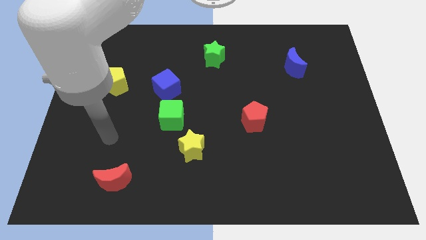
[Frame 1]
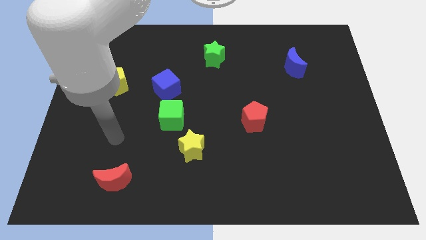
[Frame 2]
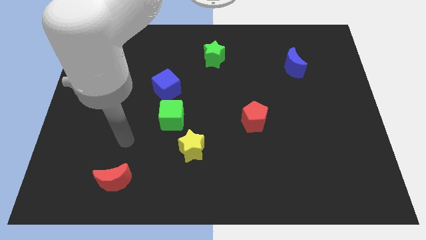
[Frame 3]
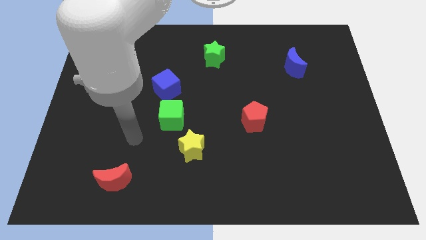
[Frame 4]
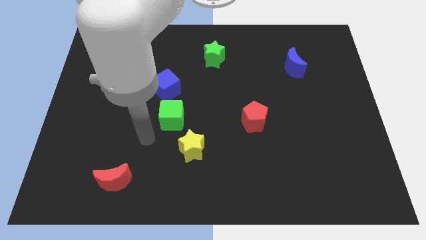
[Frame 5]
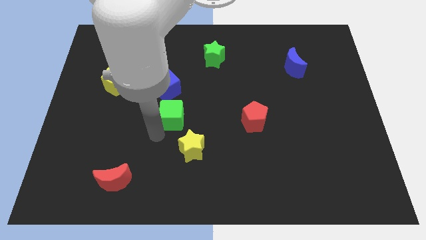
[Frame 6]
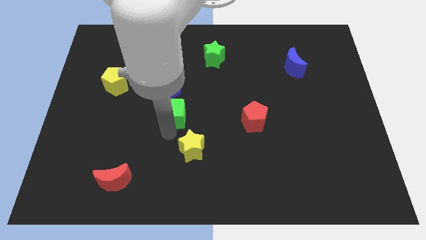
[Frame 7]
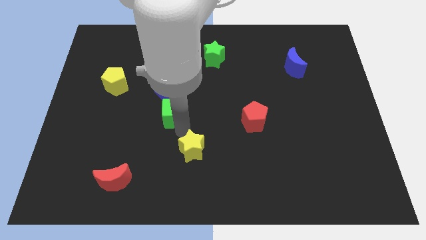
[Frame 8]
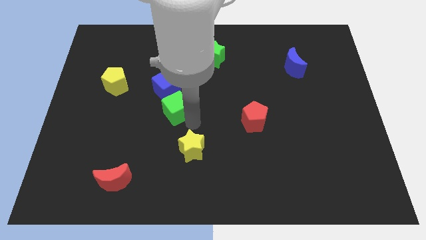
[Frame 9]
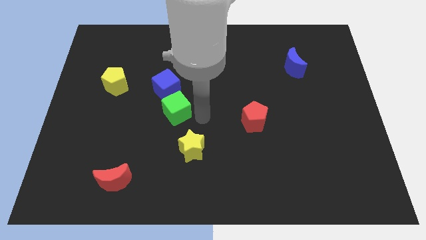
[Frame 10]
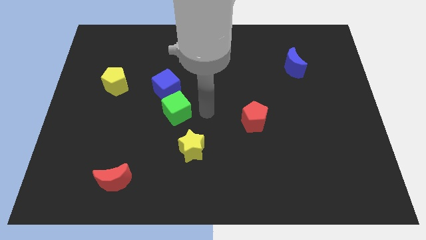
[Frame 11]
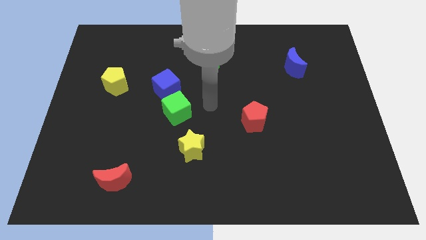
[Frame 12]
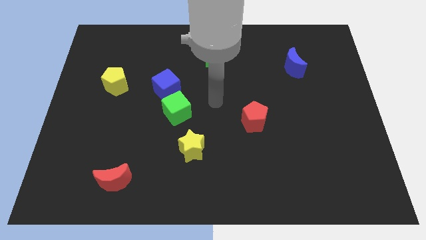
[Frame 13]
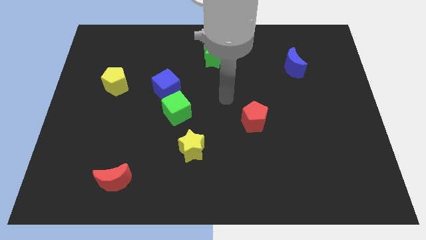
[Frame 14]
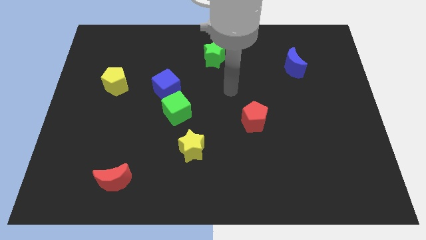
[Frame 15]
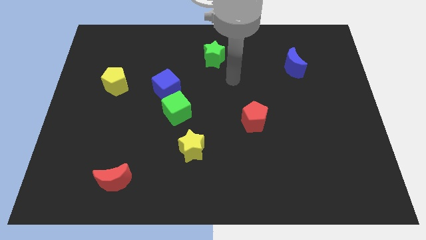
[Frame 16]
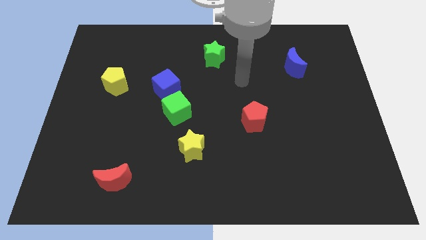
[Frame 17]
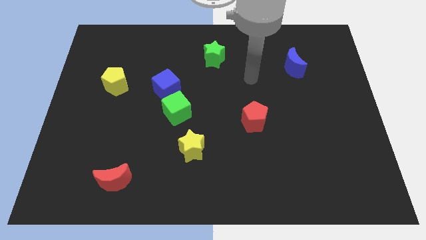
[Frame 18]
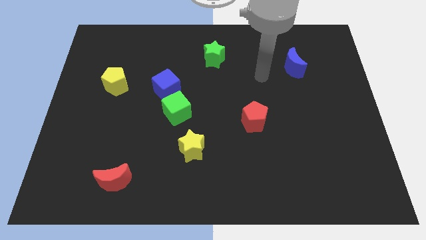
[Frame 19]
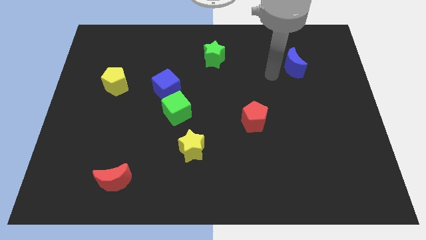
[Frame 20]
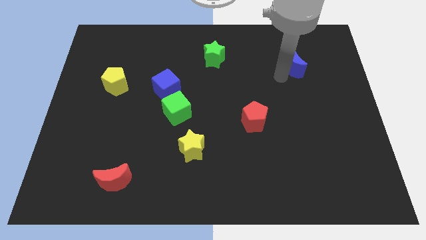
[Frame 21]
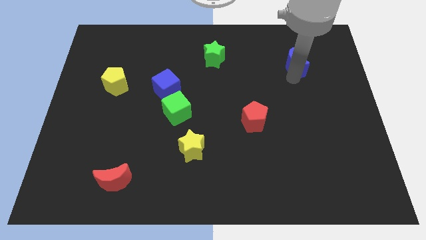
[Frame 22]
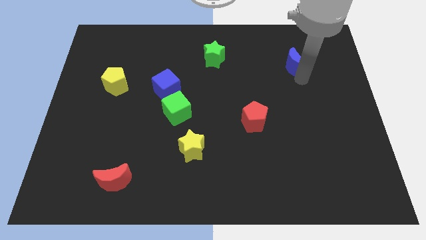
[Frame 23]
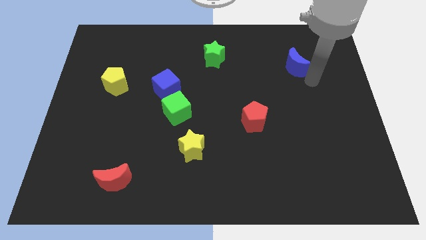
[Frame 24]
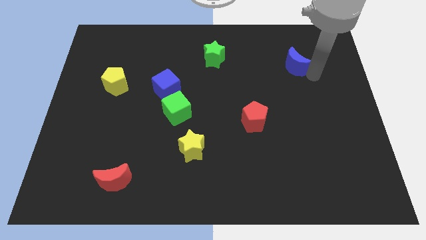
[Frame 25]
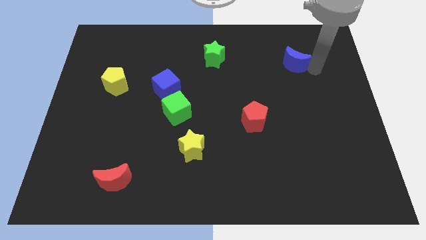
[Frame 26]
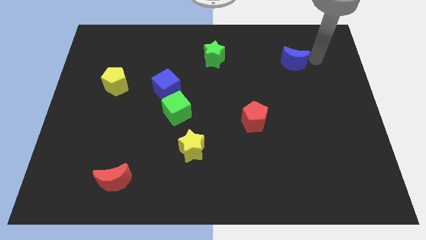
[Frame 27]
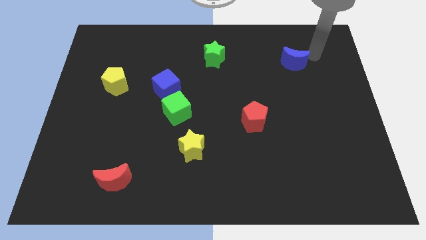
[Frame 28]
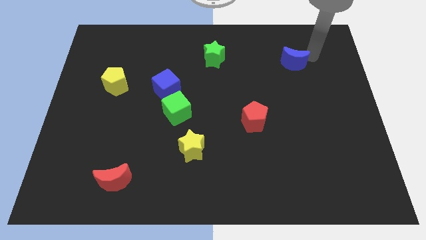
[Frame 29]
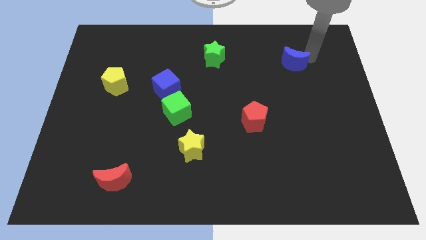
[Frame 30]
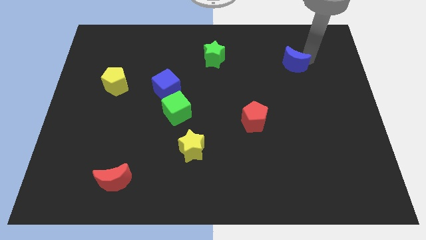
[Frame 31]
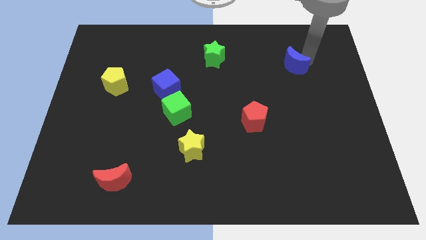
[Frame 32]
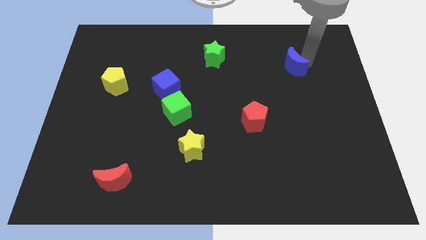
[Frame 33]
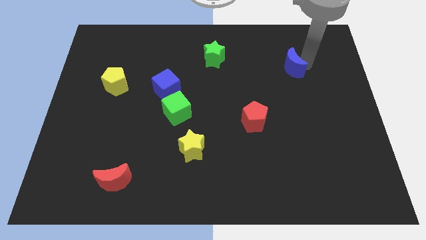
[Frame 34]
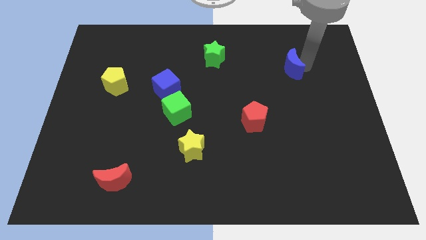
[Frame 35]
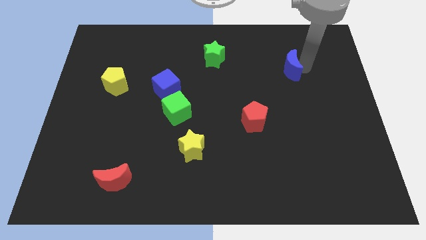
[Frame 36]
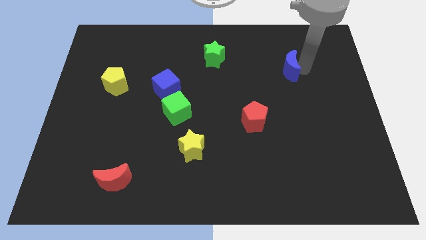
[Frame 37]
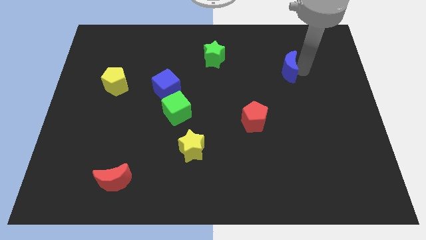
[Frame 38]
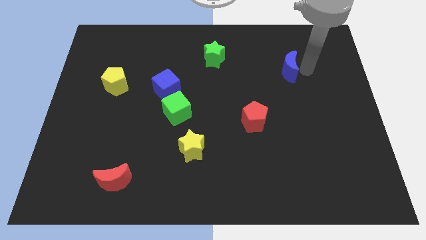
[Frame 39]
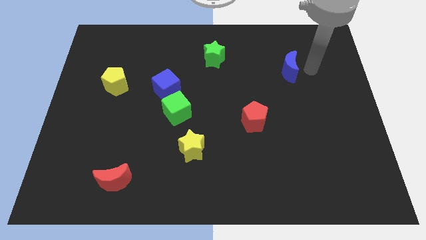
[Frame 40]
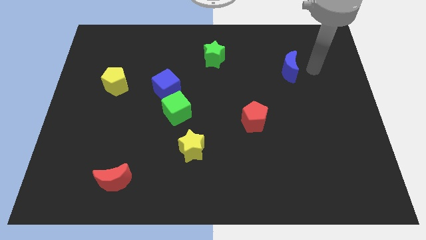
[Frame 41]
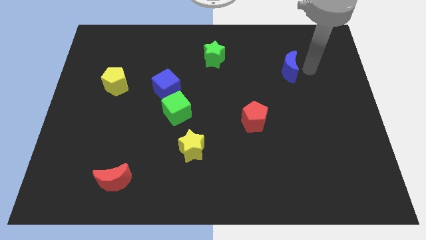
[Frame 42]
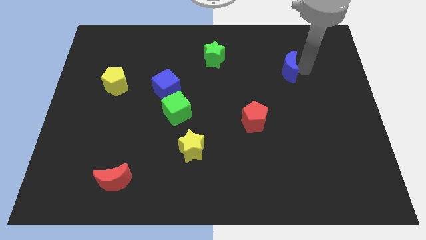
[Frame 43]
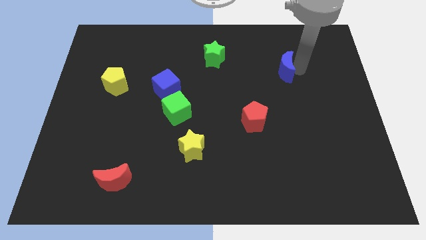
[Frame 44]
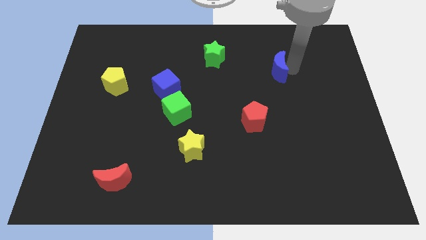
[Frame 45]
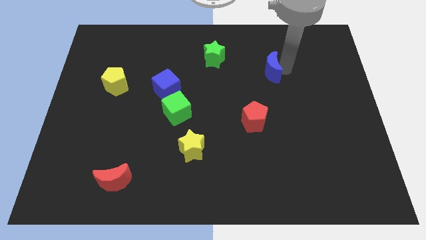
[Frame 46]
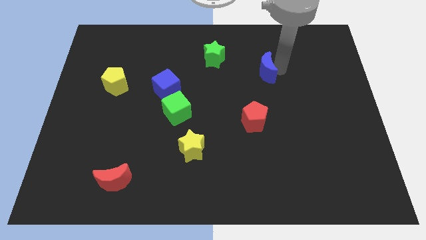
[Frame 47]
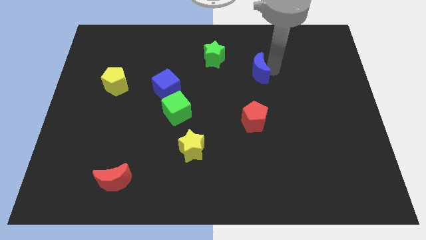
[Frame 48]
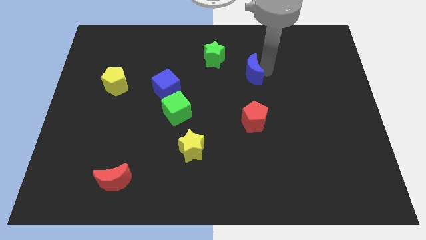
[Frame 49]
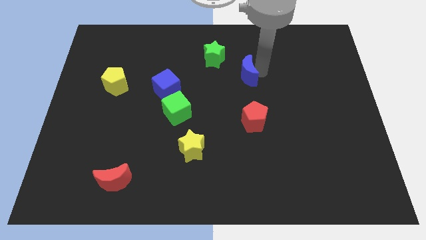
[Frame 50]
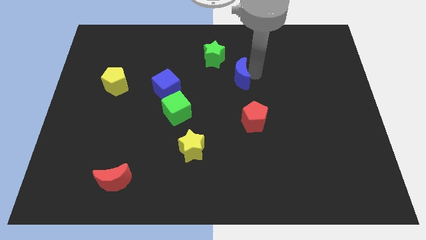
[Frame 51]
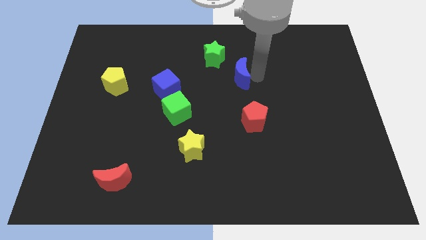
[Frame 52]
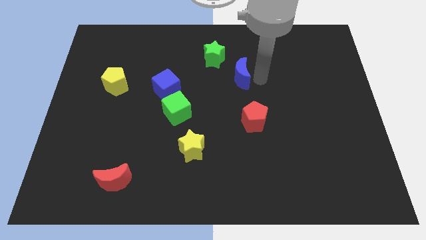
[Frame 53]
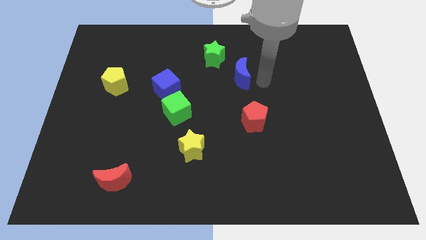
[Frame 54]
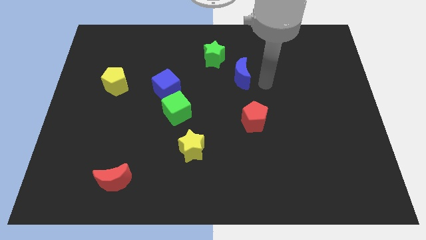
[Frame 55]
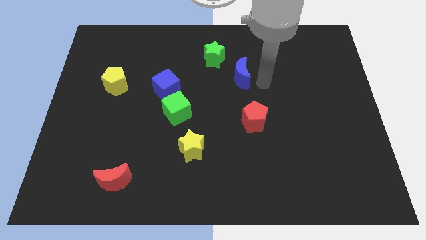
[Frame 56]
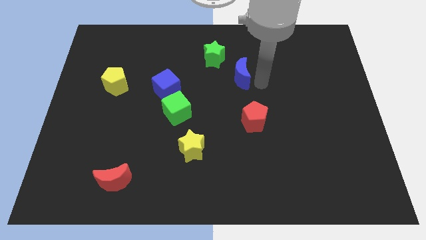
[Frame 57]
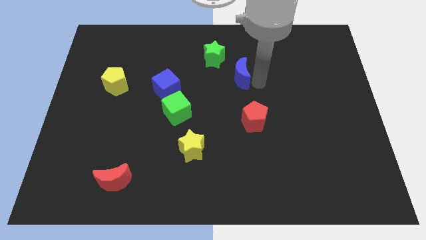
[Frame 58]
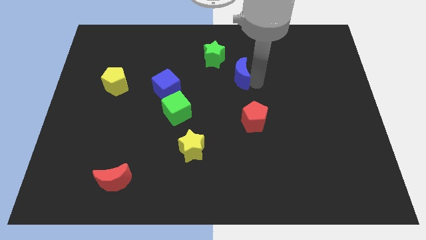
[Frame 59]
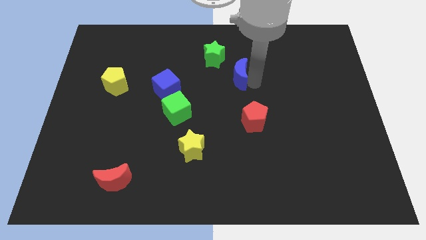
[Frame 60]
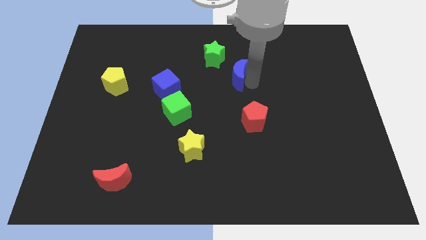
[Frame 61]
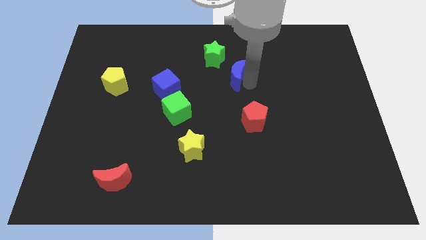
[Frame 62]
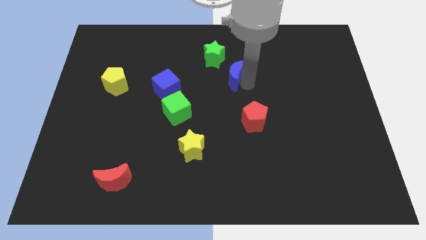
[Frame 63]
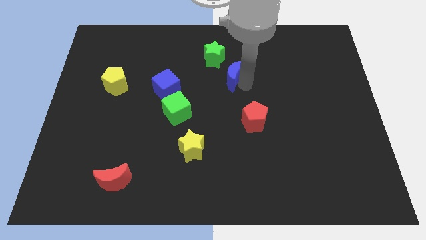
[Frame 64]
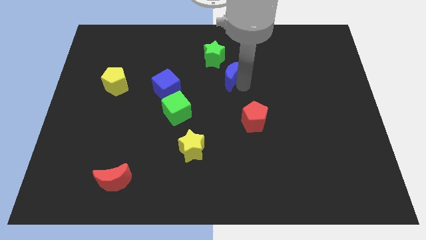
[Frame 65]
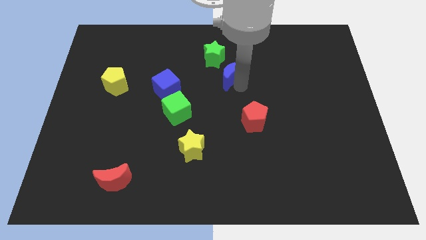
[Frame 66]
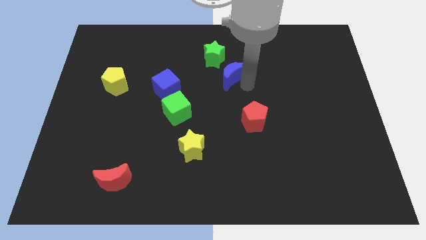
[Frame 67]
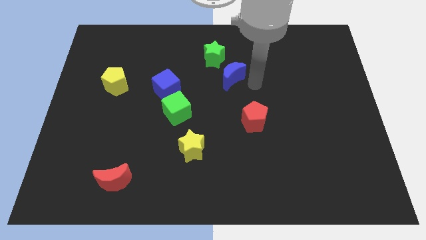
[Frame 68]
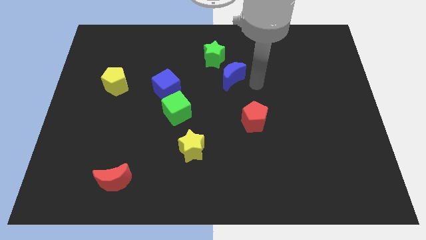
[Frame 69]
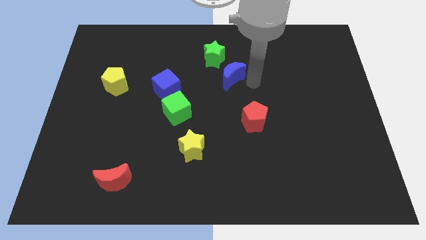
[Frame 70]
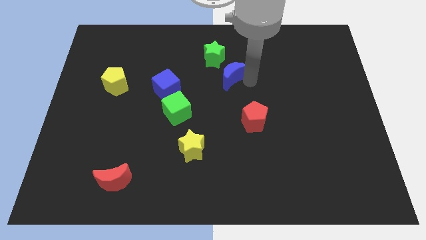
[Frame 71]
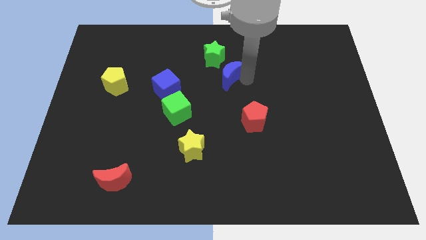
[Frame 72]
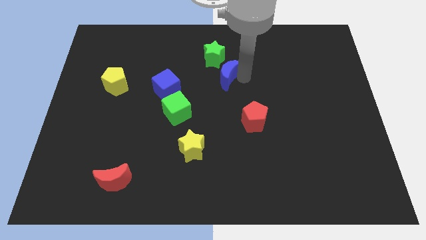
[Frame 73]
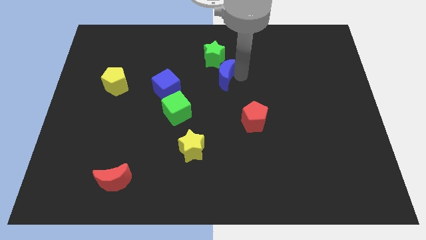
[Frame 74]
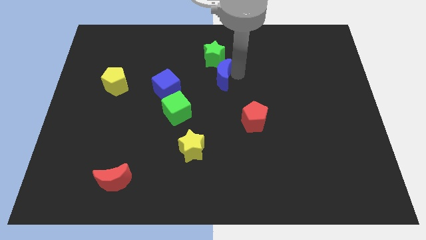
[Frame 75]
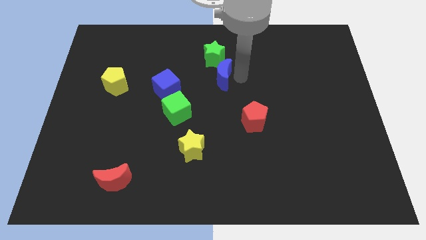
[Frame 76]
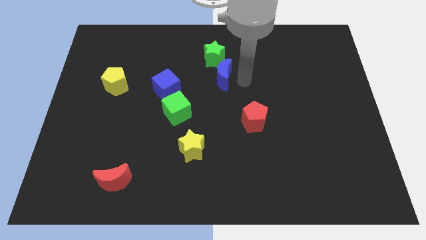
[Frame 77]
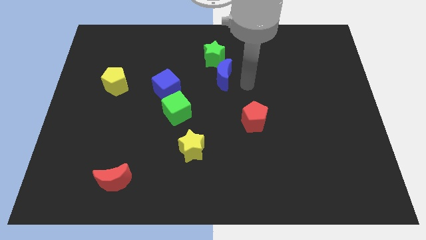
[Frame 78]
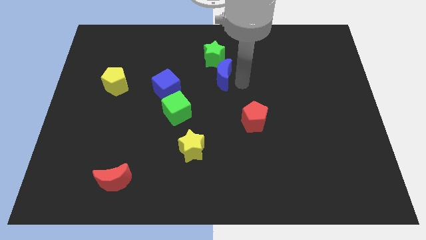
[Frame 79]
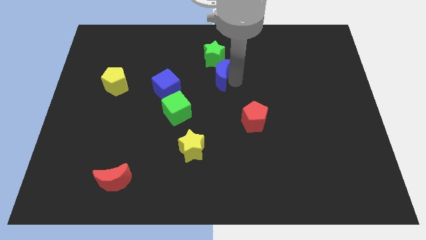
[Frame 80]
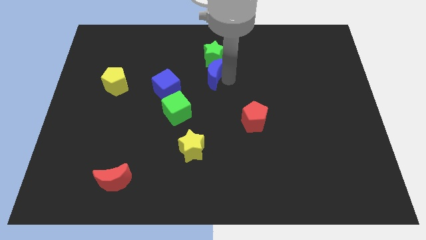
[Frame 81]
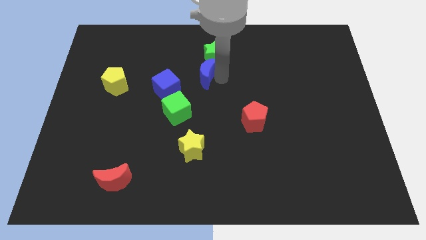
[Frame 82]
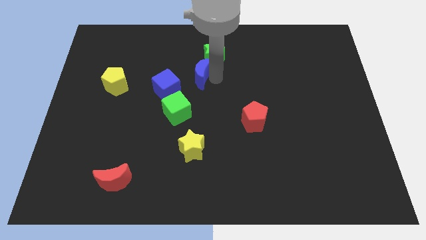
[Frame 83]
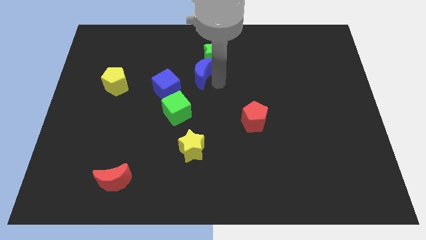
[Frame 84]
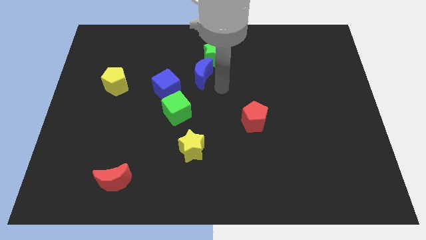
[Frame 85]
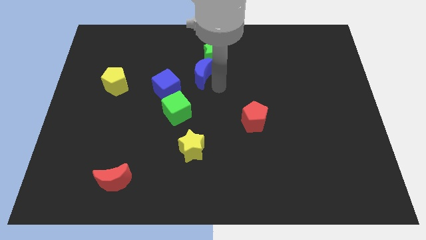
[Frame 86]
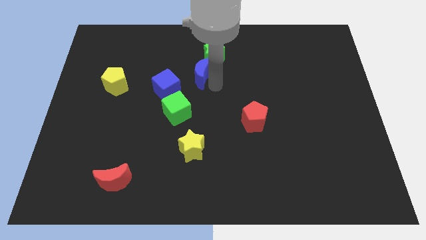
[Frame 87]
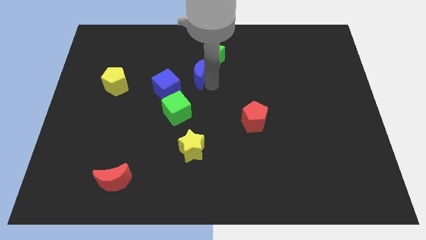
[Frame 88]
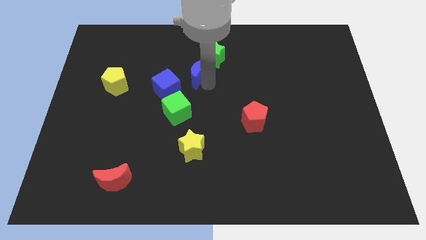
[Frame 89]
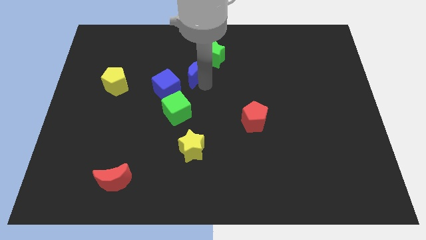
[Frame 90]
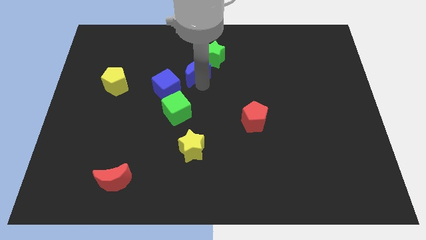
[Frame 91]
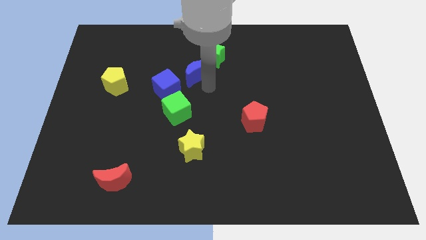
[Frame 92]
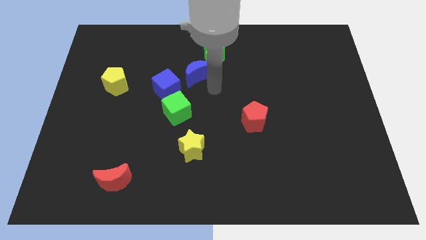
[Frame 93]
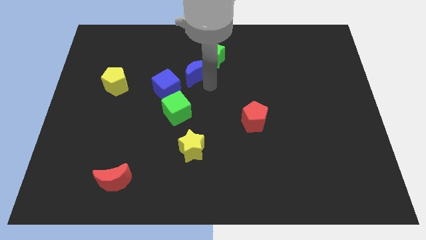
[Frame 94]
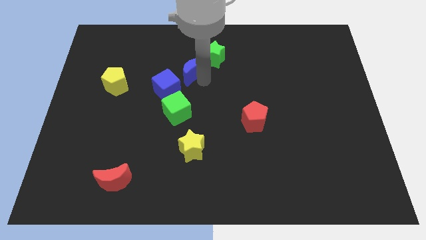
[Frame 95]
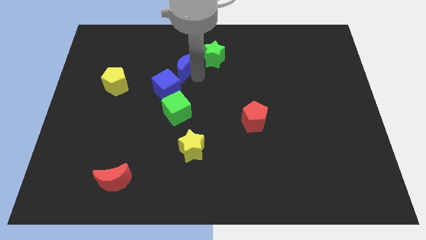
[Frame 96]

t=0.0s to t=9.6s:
slide the blue moon just left of the green star
